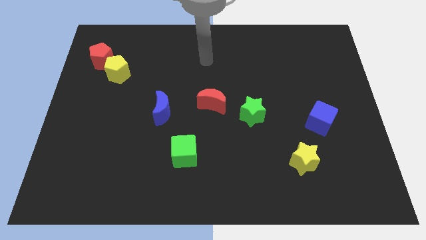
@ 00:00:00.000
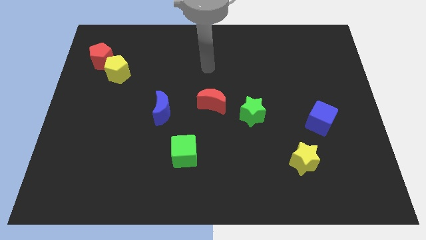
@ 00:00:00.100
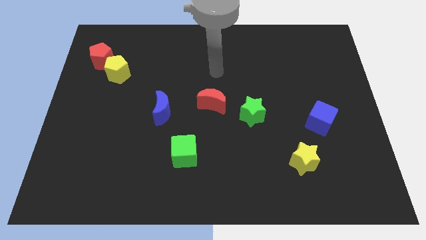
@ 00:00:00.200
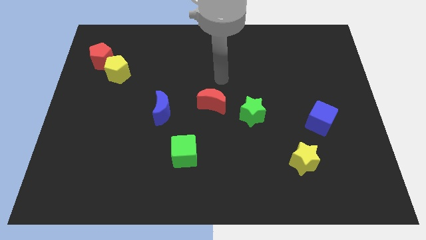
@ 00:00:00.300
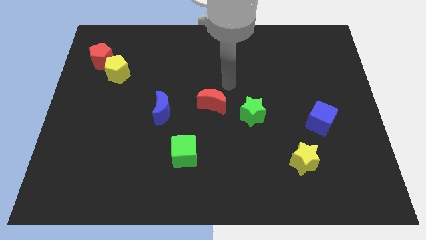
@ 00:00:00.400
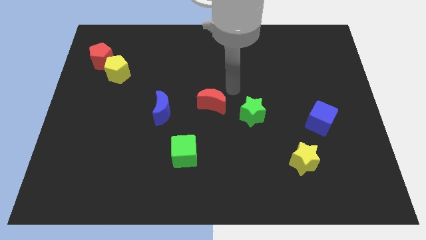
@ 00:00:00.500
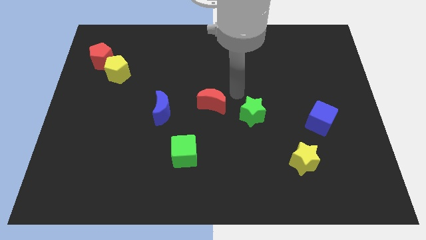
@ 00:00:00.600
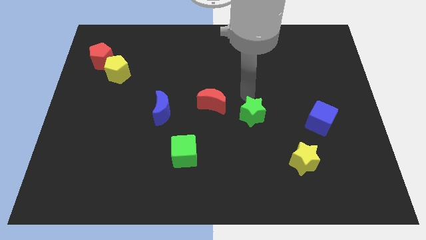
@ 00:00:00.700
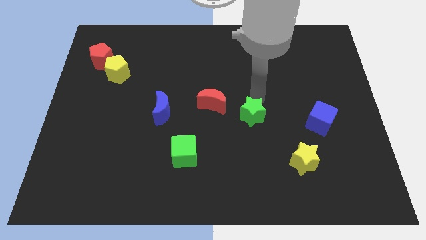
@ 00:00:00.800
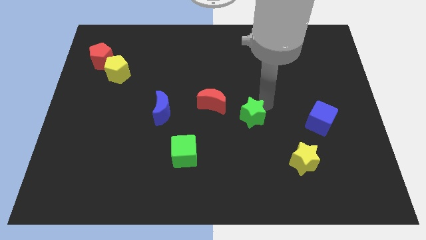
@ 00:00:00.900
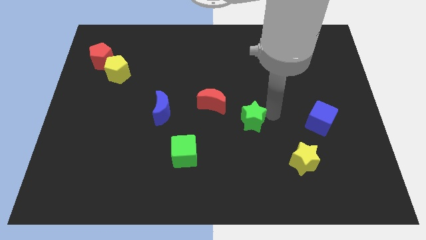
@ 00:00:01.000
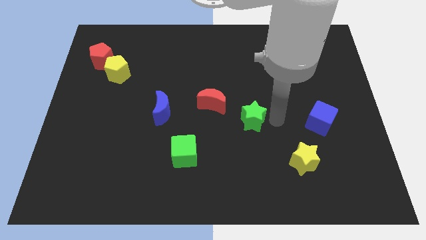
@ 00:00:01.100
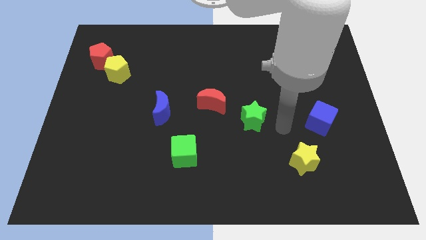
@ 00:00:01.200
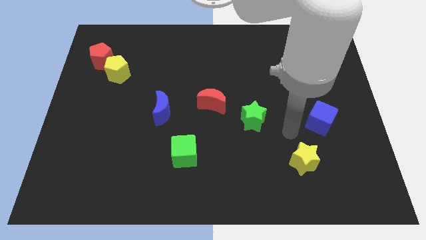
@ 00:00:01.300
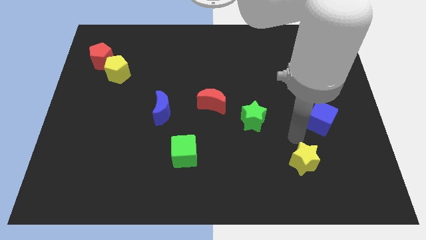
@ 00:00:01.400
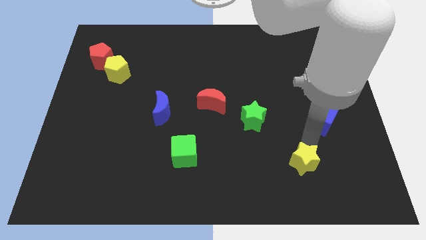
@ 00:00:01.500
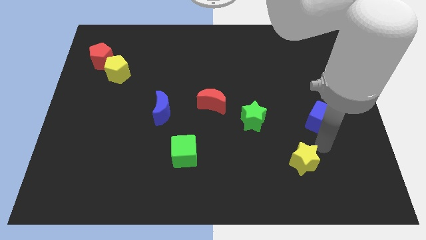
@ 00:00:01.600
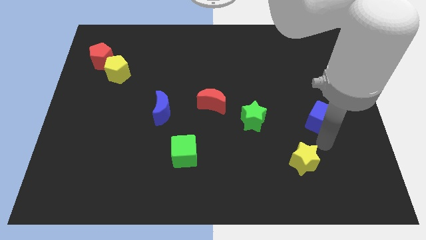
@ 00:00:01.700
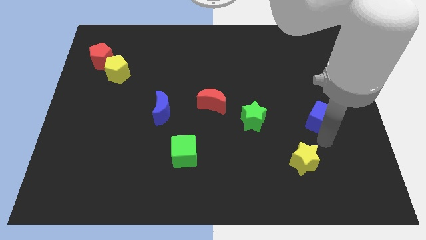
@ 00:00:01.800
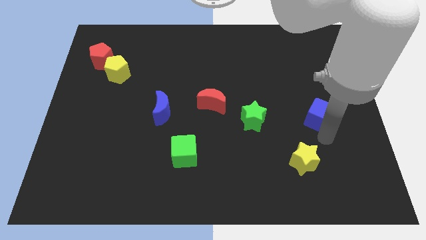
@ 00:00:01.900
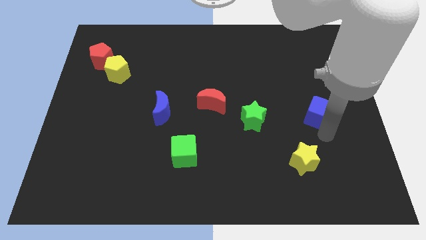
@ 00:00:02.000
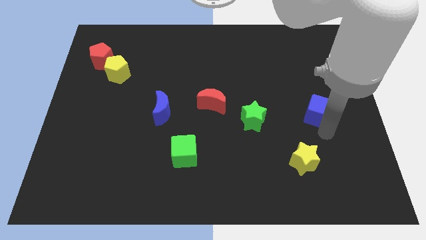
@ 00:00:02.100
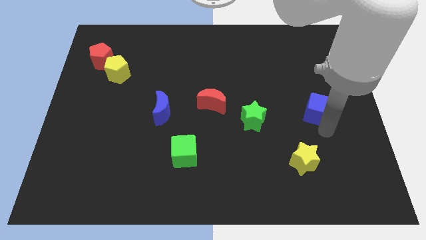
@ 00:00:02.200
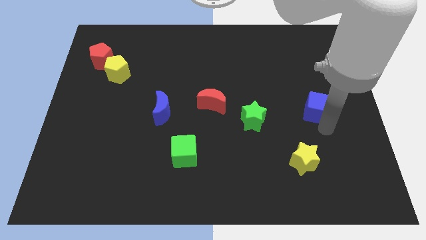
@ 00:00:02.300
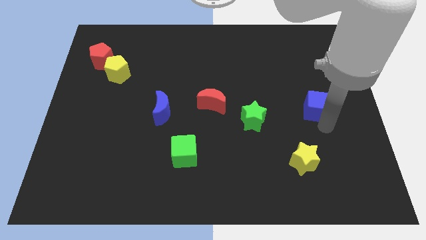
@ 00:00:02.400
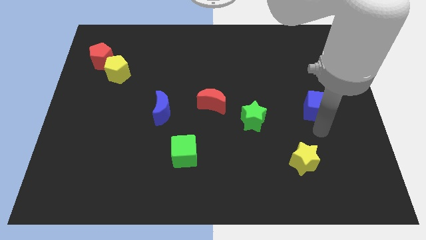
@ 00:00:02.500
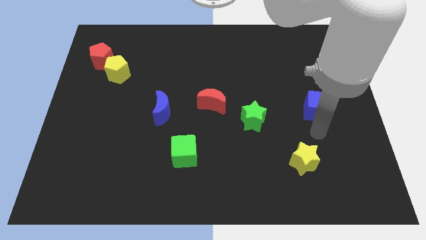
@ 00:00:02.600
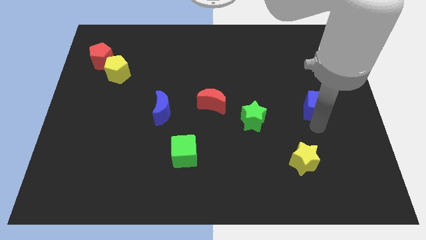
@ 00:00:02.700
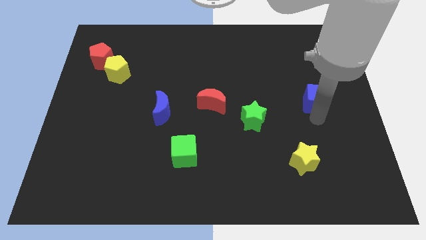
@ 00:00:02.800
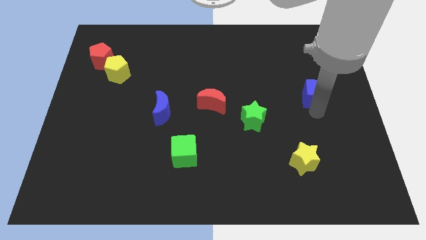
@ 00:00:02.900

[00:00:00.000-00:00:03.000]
push the blue cube upwards slightly

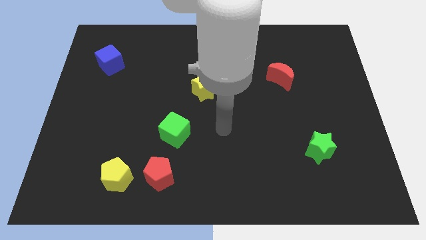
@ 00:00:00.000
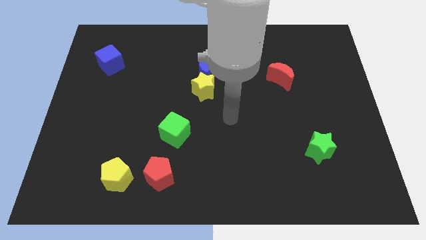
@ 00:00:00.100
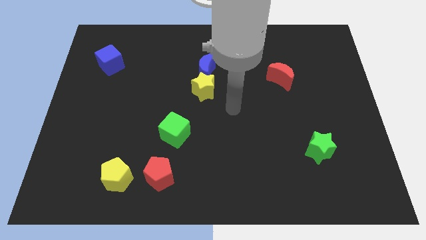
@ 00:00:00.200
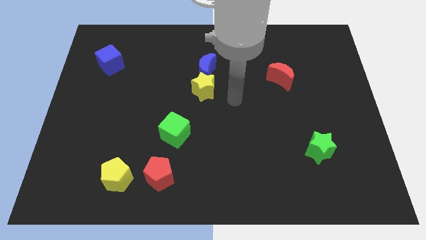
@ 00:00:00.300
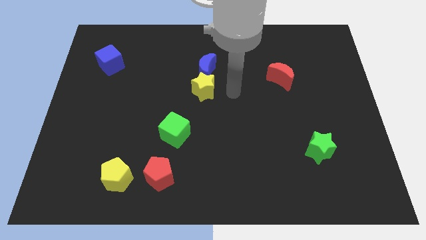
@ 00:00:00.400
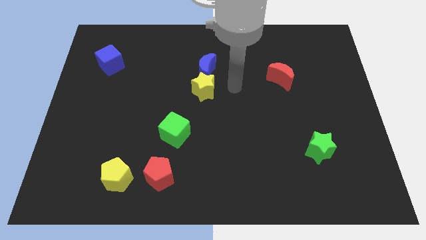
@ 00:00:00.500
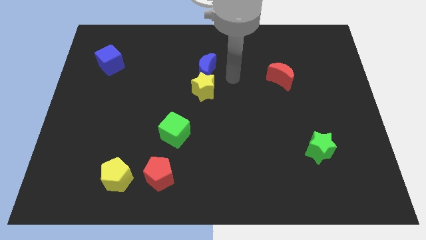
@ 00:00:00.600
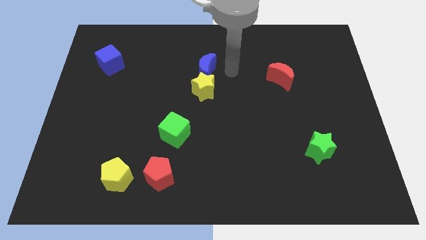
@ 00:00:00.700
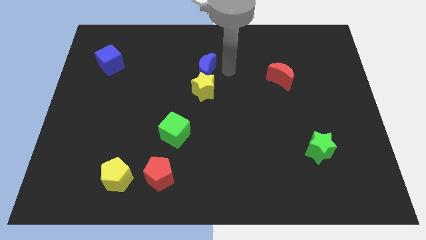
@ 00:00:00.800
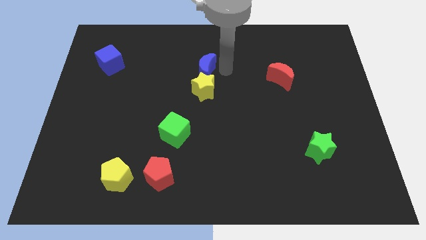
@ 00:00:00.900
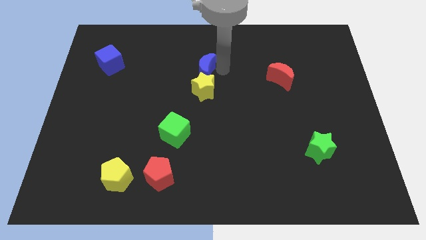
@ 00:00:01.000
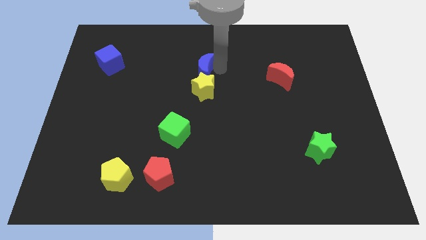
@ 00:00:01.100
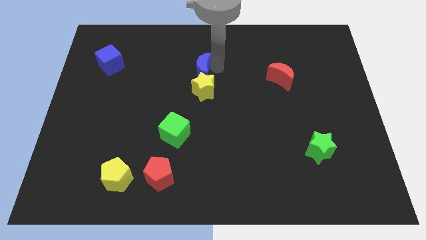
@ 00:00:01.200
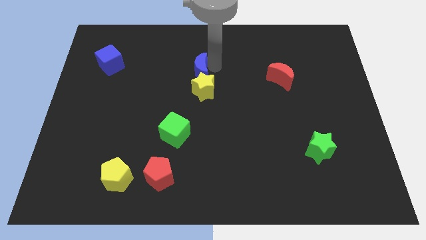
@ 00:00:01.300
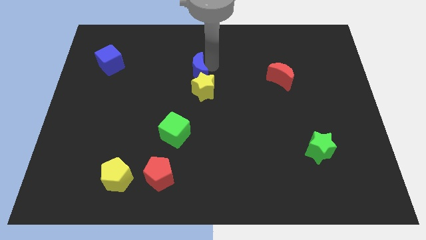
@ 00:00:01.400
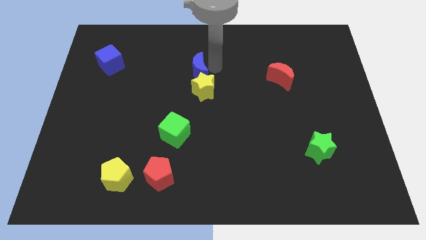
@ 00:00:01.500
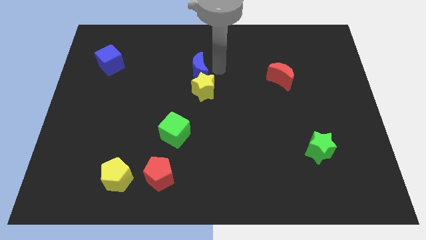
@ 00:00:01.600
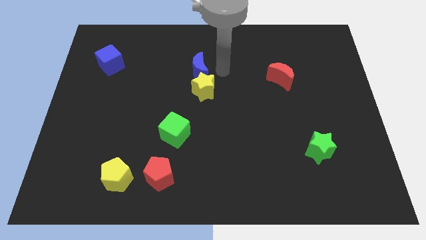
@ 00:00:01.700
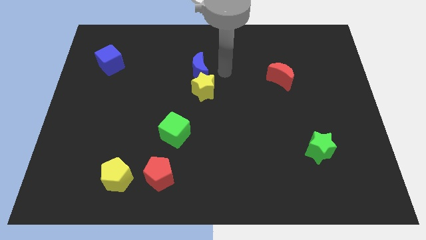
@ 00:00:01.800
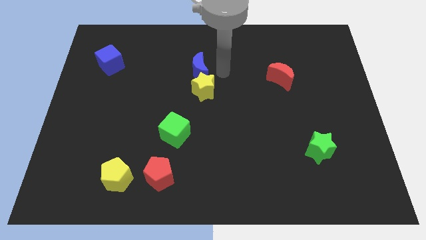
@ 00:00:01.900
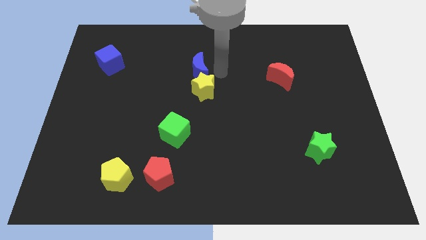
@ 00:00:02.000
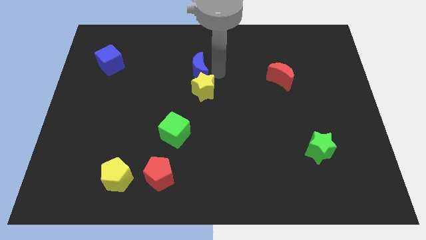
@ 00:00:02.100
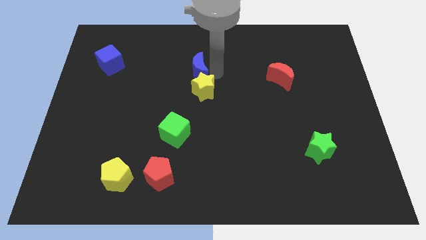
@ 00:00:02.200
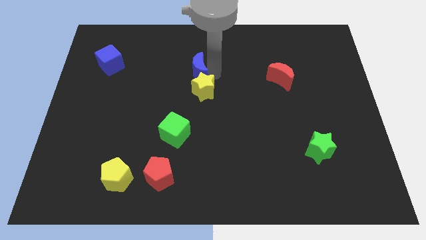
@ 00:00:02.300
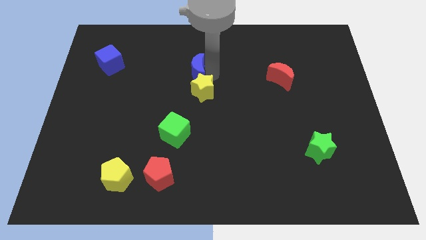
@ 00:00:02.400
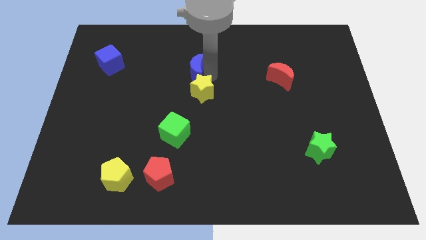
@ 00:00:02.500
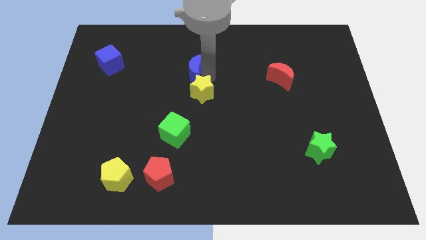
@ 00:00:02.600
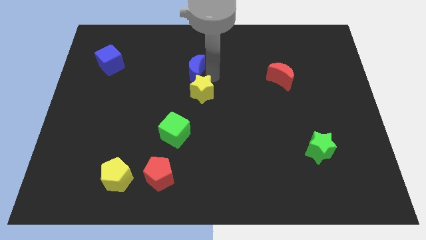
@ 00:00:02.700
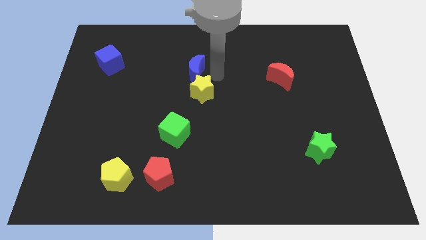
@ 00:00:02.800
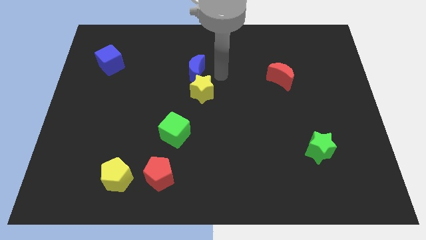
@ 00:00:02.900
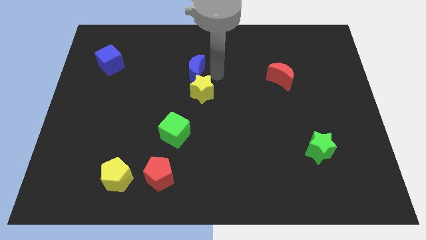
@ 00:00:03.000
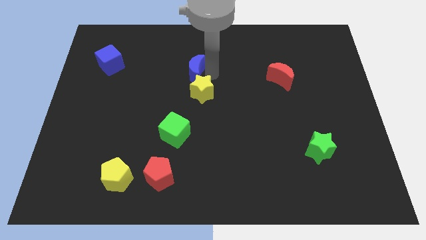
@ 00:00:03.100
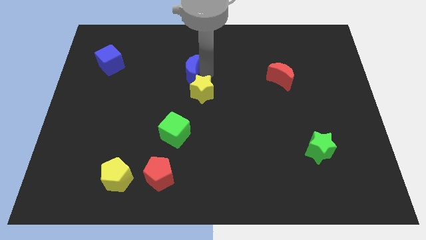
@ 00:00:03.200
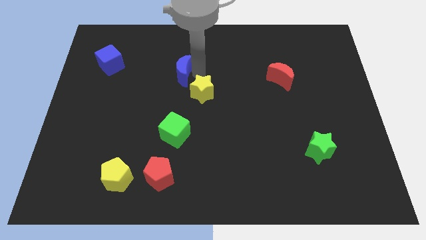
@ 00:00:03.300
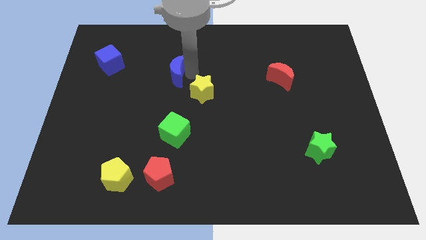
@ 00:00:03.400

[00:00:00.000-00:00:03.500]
slide the blue moon a little bit to the left

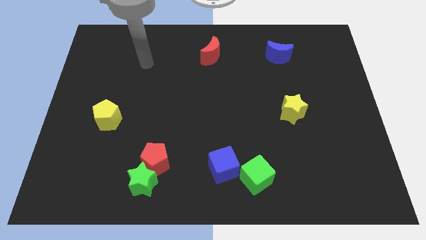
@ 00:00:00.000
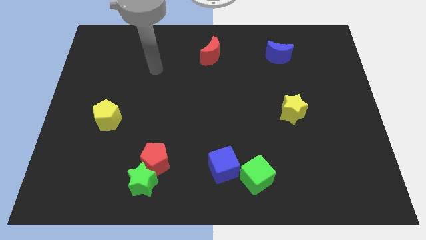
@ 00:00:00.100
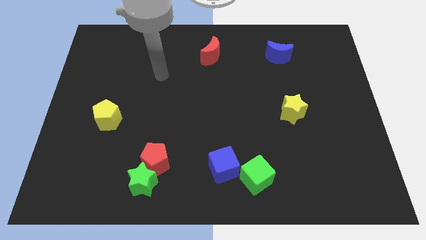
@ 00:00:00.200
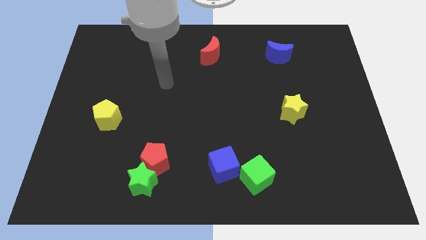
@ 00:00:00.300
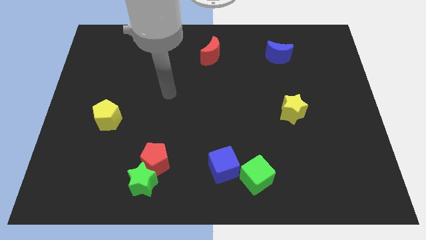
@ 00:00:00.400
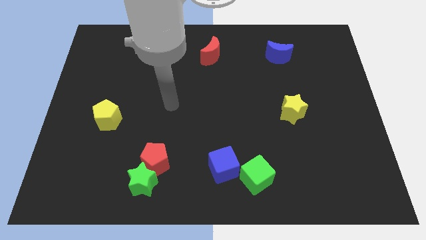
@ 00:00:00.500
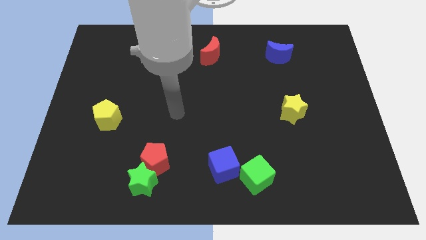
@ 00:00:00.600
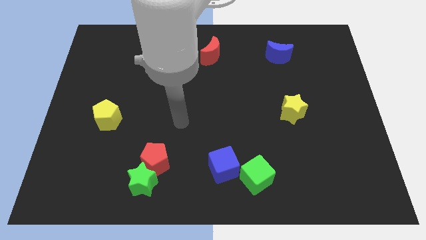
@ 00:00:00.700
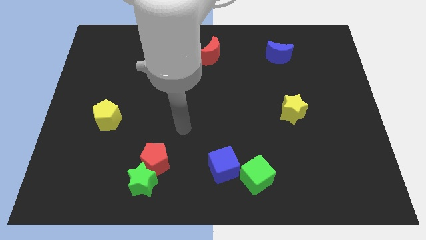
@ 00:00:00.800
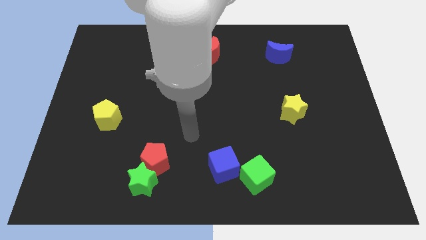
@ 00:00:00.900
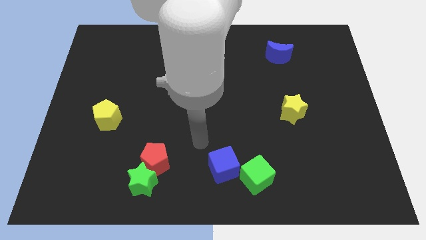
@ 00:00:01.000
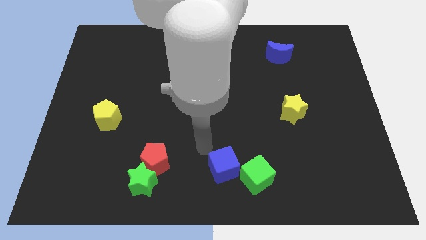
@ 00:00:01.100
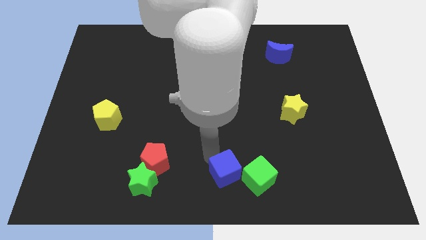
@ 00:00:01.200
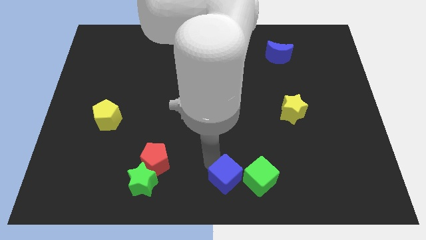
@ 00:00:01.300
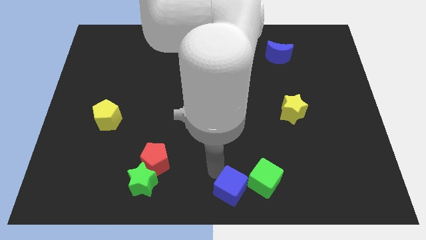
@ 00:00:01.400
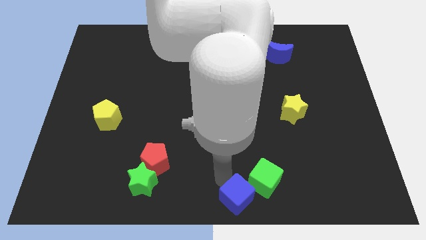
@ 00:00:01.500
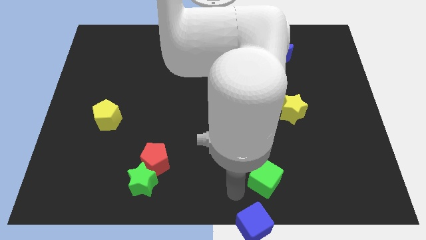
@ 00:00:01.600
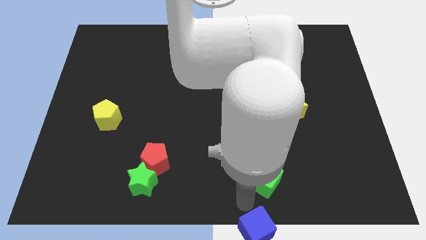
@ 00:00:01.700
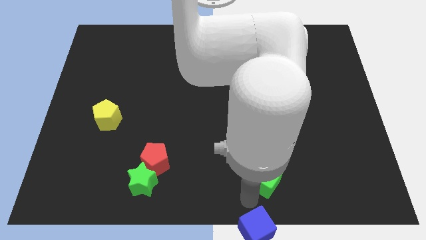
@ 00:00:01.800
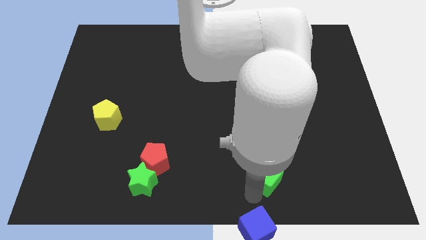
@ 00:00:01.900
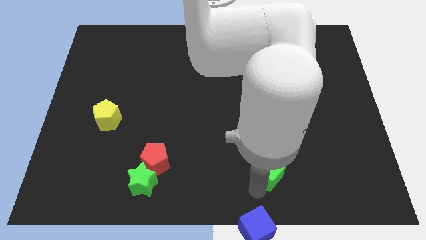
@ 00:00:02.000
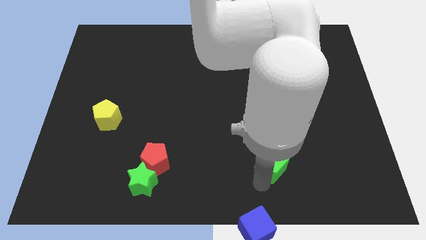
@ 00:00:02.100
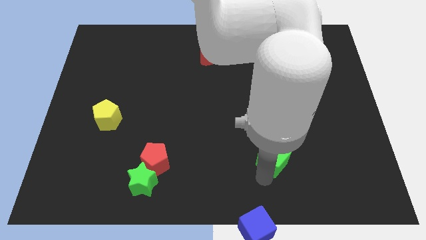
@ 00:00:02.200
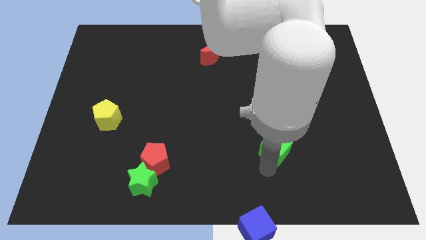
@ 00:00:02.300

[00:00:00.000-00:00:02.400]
slide the green cube upwards and right a little
